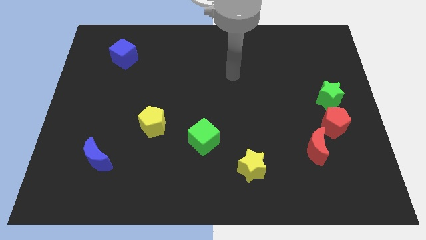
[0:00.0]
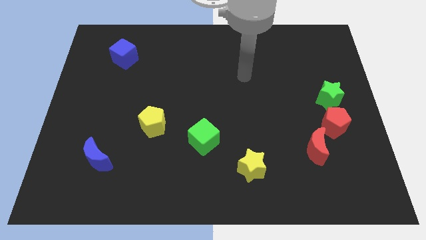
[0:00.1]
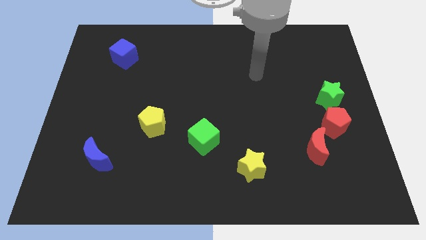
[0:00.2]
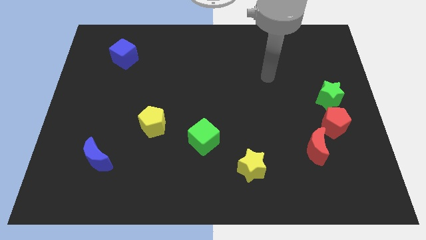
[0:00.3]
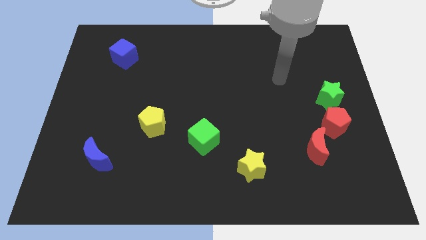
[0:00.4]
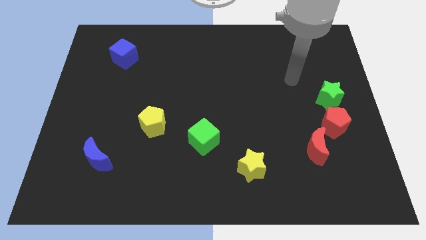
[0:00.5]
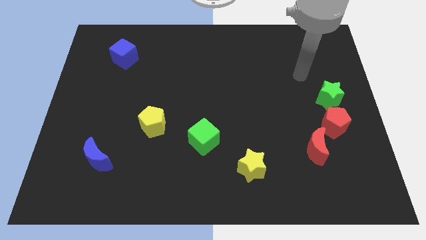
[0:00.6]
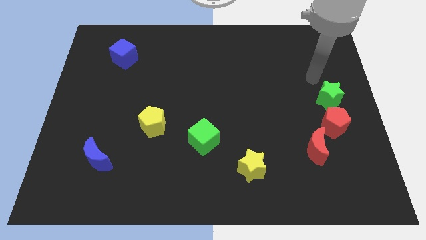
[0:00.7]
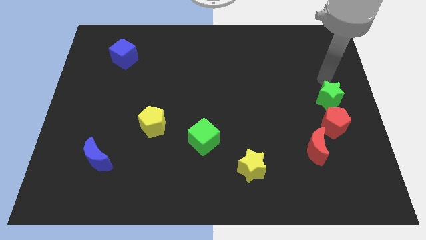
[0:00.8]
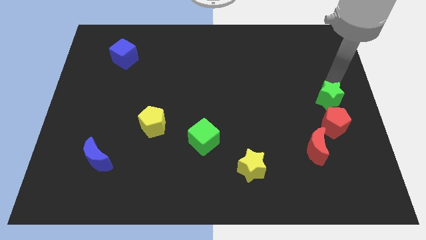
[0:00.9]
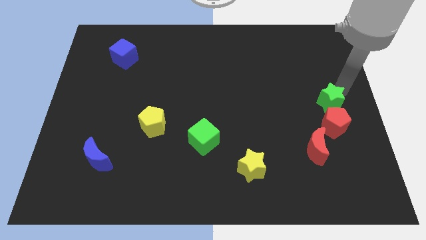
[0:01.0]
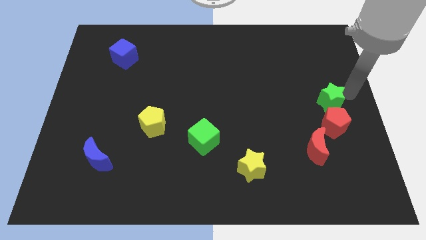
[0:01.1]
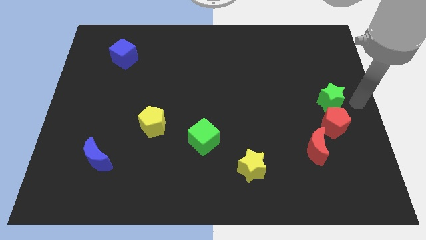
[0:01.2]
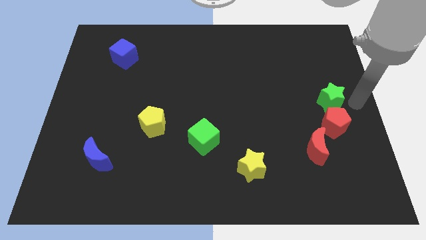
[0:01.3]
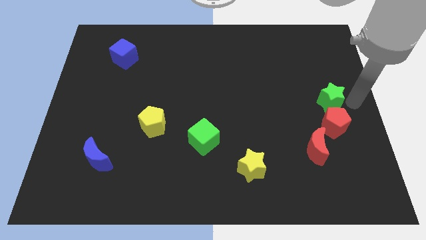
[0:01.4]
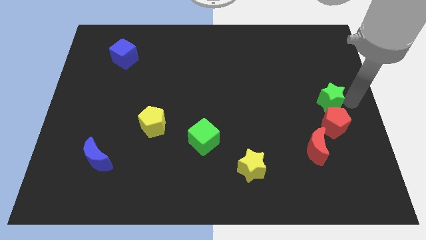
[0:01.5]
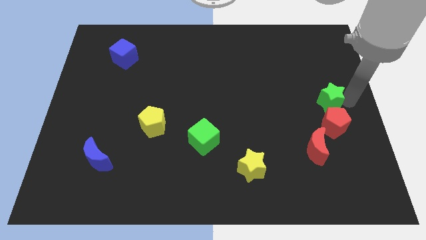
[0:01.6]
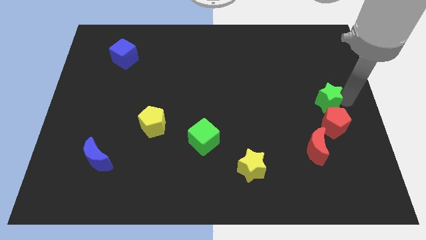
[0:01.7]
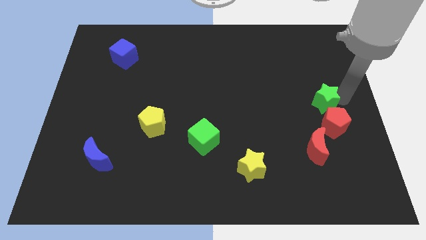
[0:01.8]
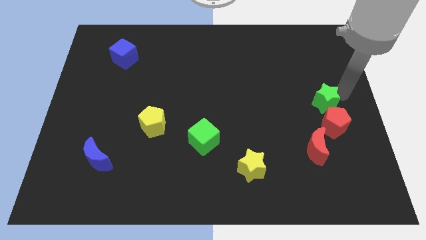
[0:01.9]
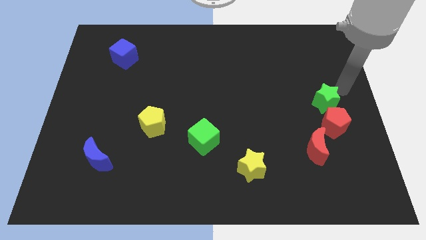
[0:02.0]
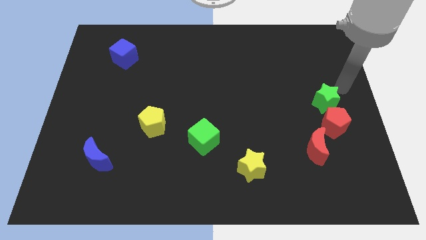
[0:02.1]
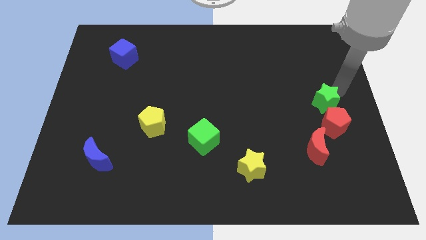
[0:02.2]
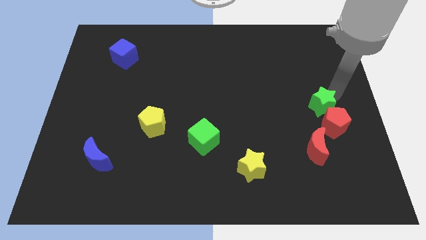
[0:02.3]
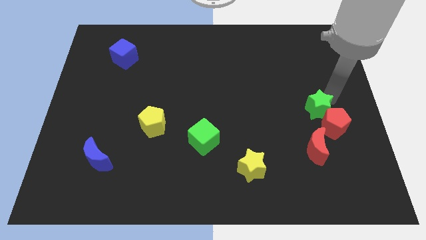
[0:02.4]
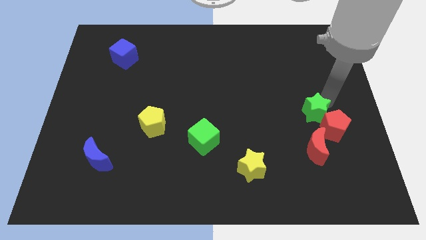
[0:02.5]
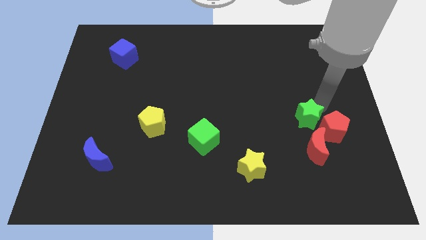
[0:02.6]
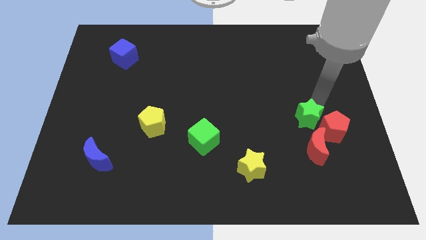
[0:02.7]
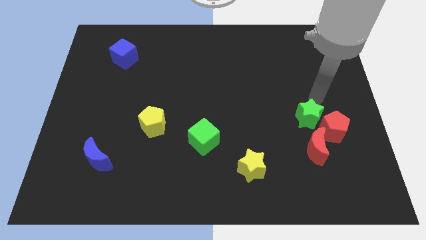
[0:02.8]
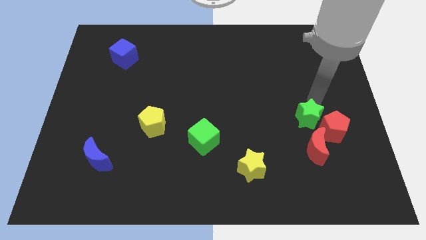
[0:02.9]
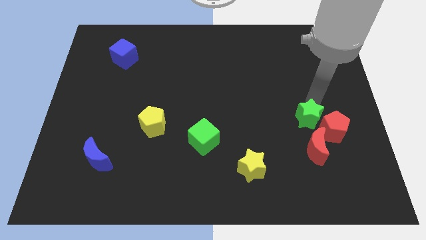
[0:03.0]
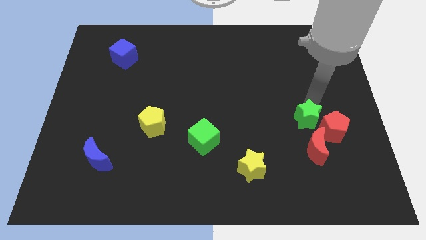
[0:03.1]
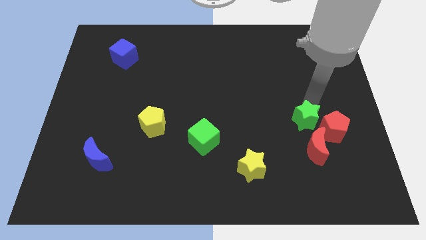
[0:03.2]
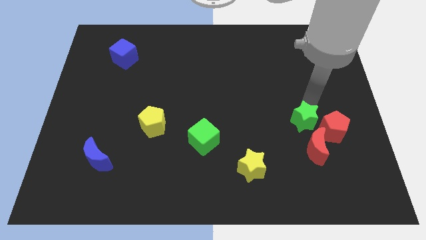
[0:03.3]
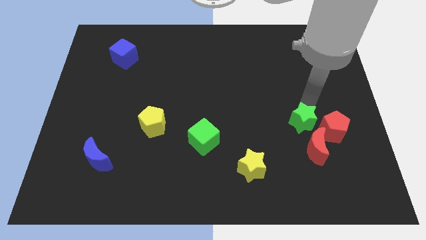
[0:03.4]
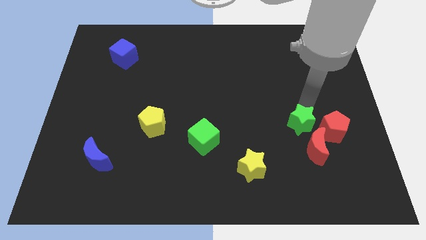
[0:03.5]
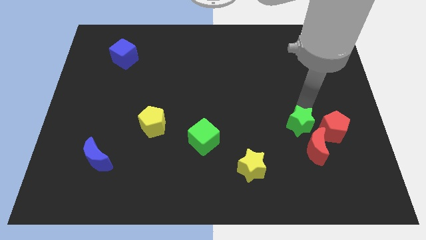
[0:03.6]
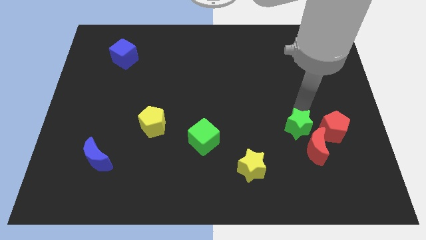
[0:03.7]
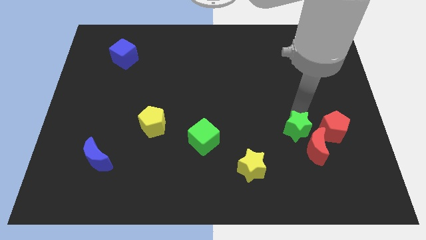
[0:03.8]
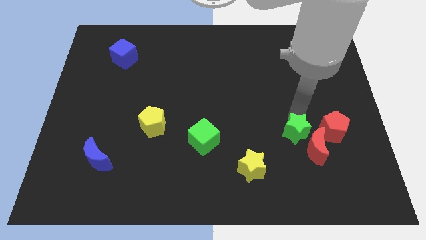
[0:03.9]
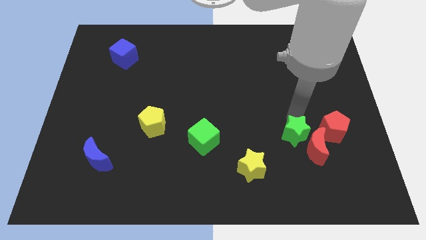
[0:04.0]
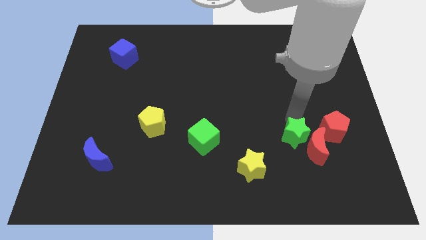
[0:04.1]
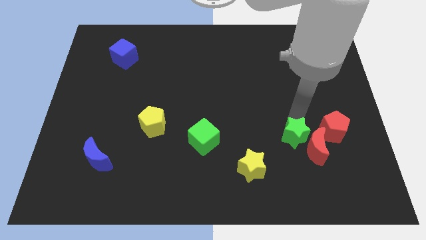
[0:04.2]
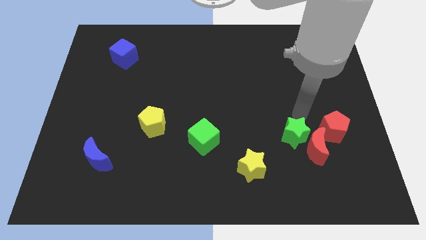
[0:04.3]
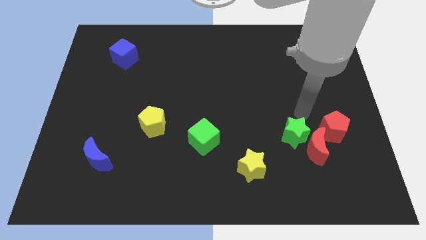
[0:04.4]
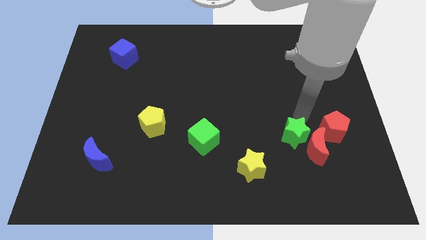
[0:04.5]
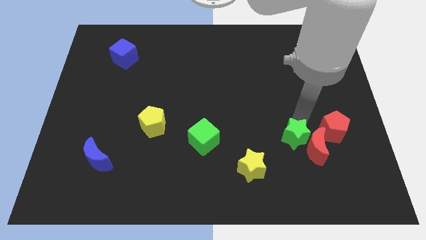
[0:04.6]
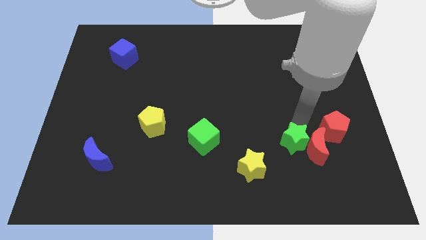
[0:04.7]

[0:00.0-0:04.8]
put the green star to the bottom left side of the red moon

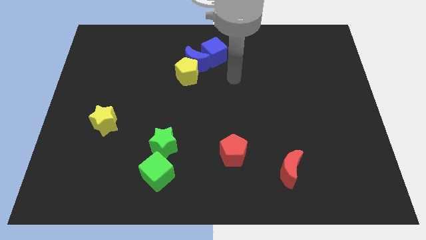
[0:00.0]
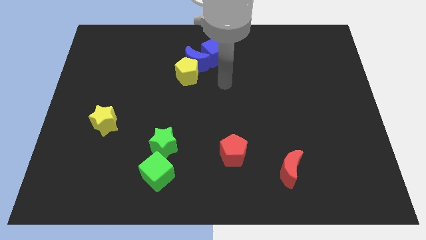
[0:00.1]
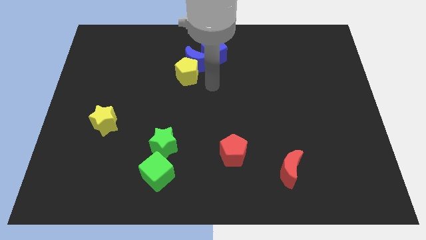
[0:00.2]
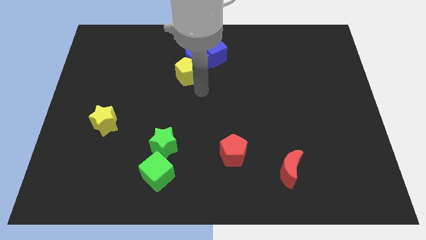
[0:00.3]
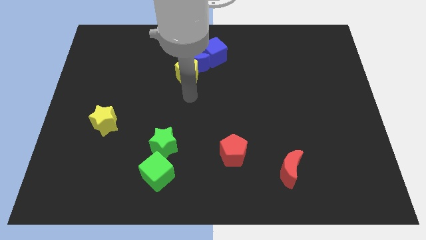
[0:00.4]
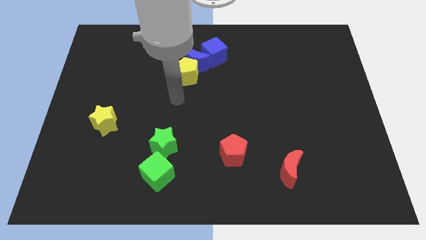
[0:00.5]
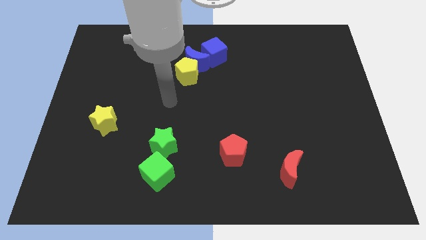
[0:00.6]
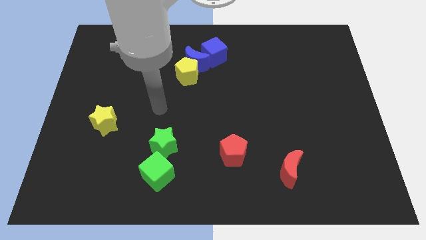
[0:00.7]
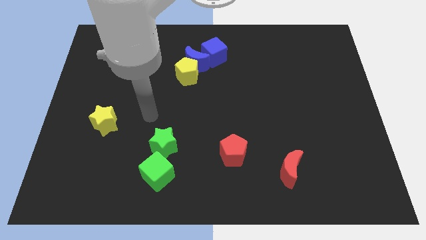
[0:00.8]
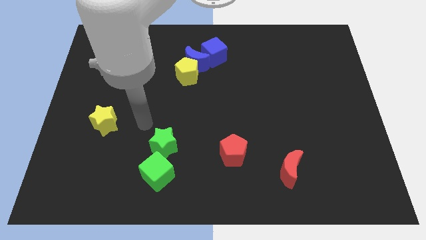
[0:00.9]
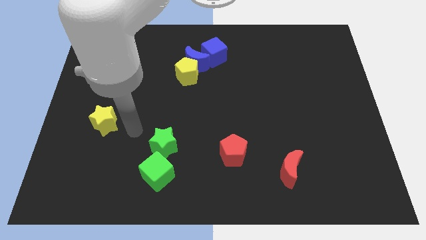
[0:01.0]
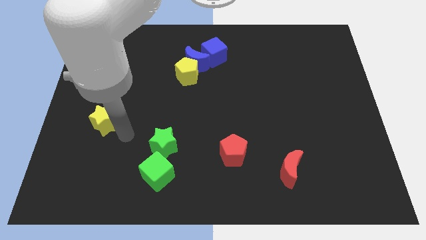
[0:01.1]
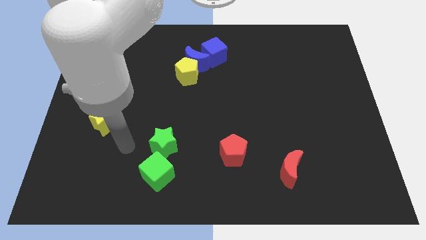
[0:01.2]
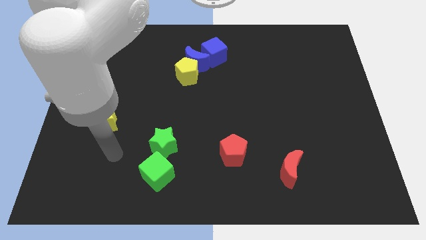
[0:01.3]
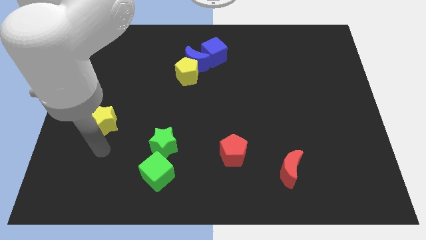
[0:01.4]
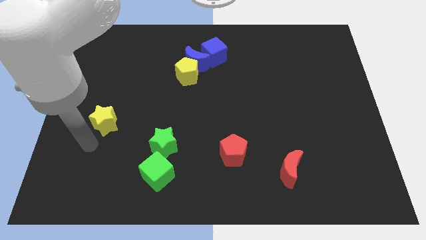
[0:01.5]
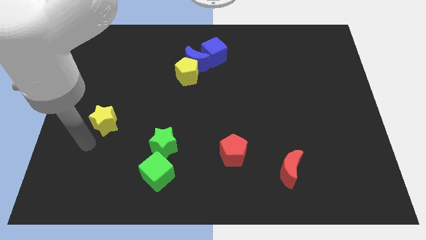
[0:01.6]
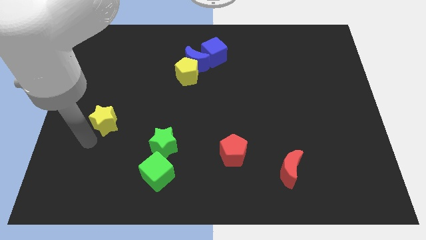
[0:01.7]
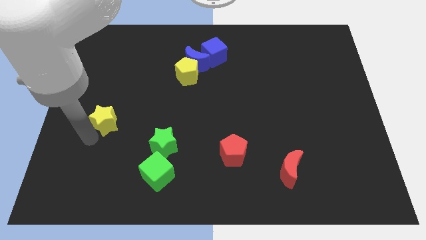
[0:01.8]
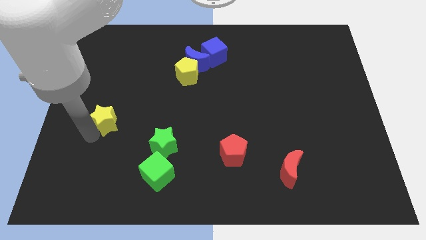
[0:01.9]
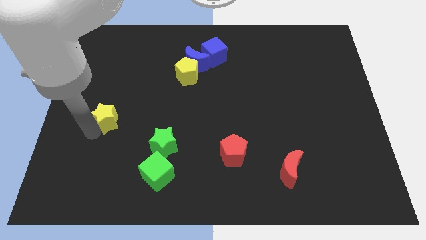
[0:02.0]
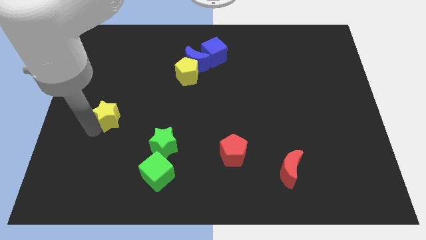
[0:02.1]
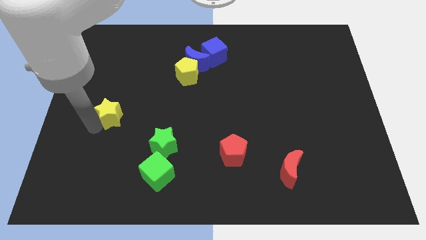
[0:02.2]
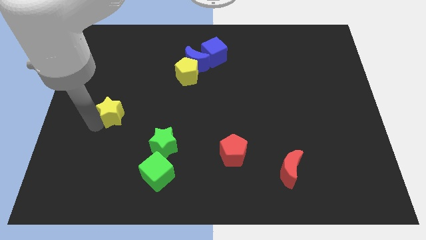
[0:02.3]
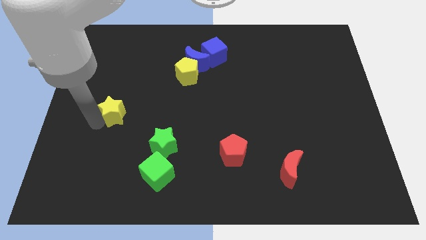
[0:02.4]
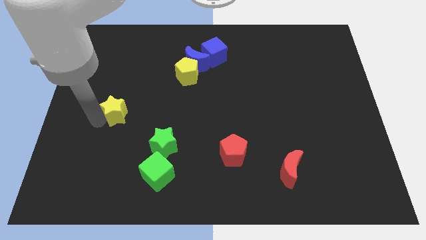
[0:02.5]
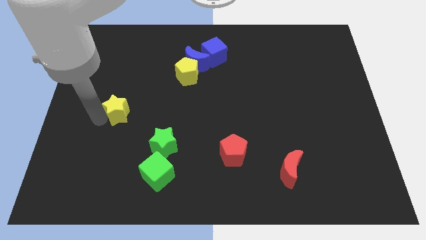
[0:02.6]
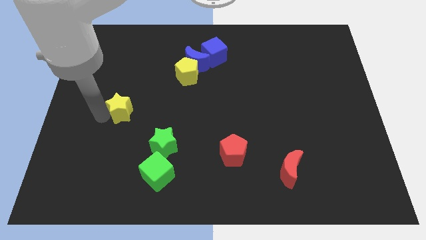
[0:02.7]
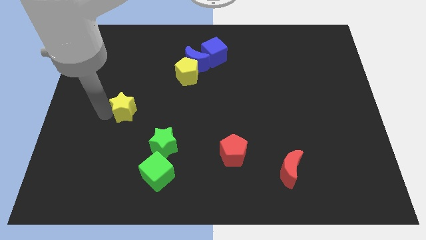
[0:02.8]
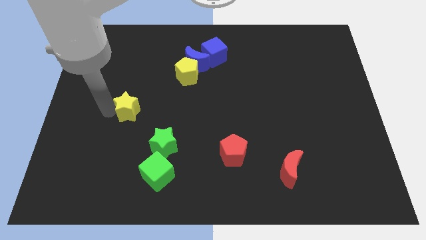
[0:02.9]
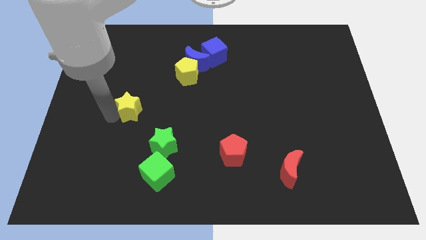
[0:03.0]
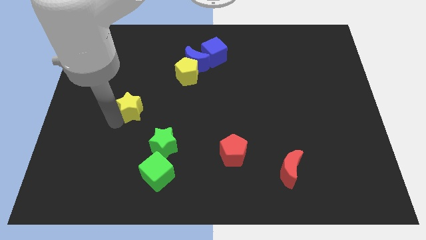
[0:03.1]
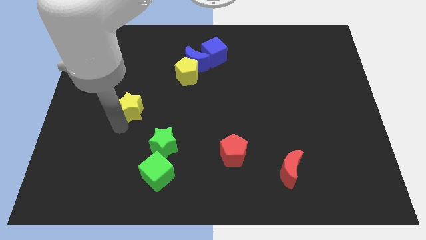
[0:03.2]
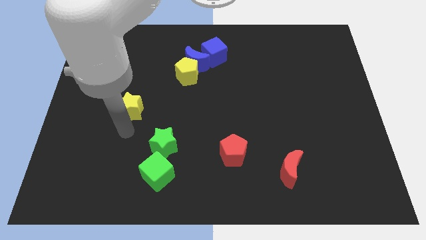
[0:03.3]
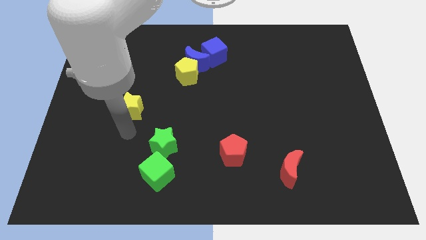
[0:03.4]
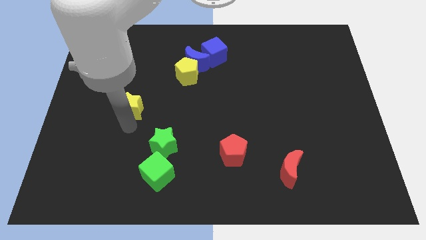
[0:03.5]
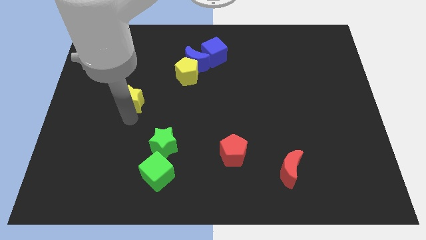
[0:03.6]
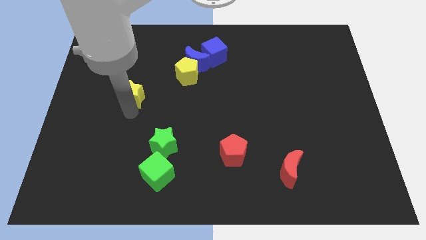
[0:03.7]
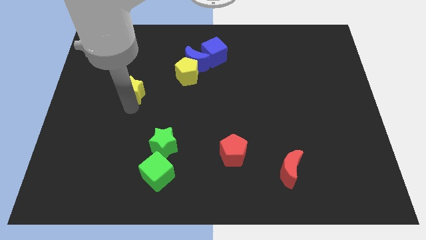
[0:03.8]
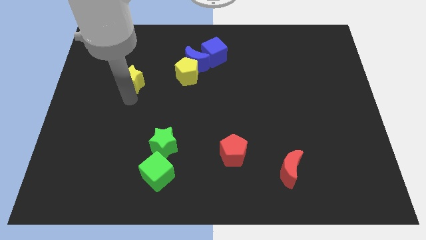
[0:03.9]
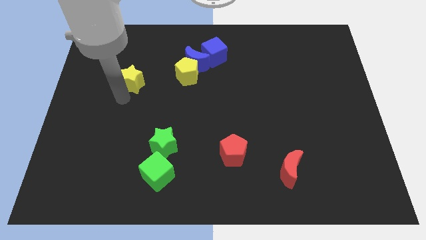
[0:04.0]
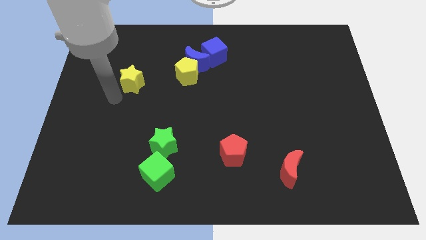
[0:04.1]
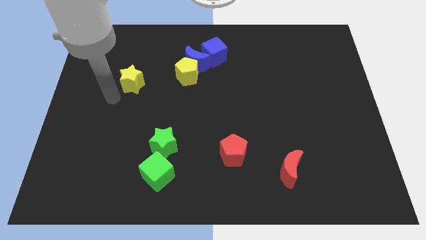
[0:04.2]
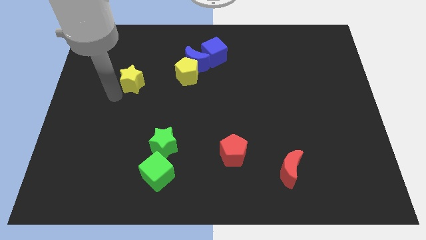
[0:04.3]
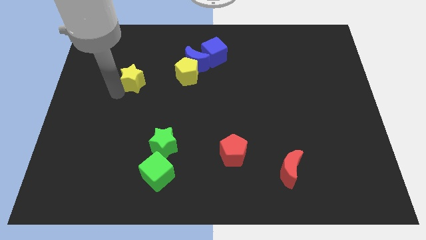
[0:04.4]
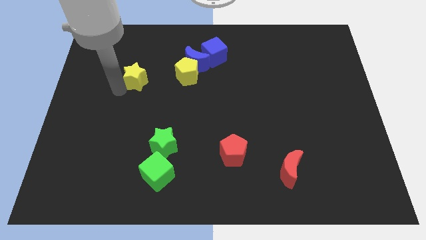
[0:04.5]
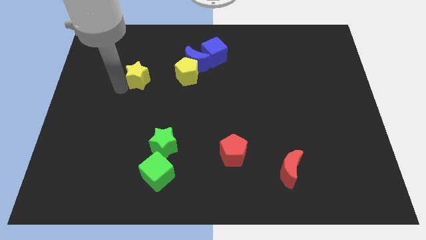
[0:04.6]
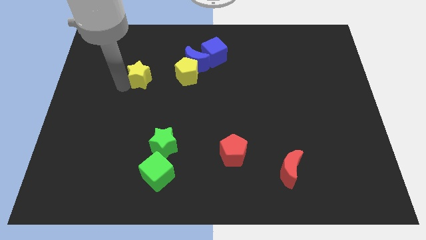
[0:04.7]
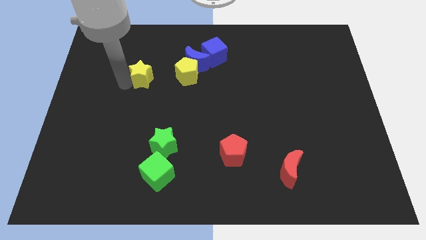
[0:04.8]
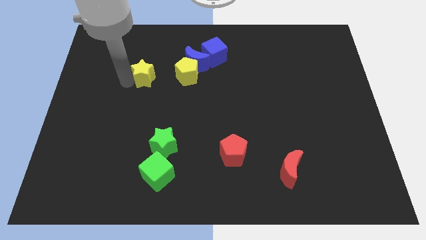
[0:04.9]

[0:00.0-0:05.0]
put the yellow star to the left side of the blue moon
